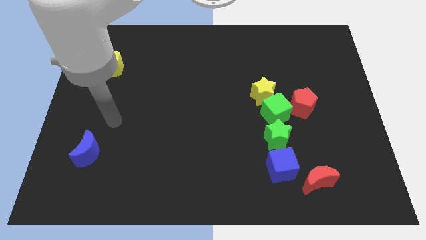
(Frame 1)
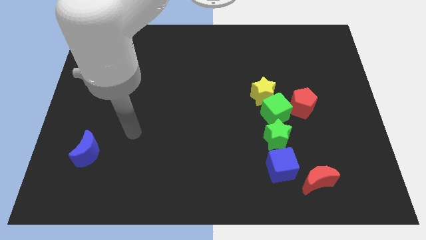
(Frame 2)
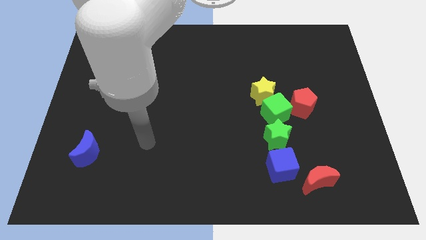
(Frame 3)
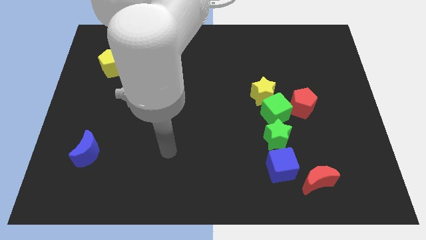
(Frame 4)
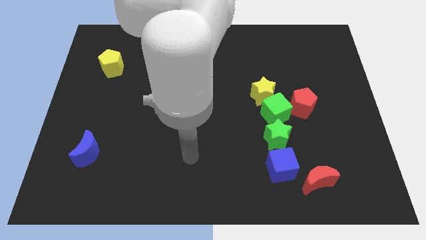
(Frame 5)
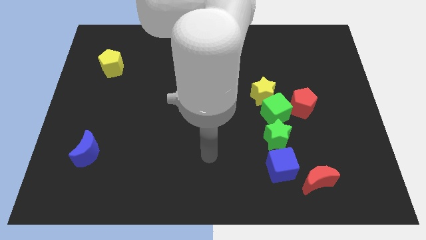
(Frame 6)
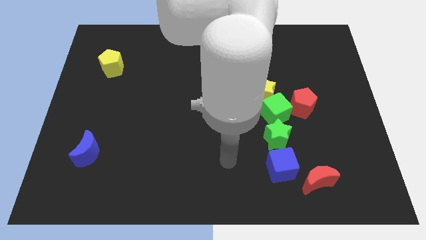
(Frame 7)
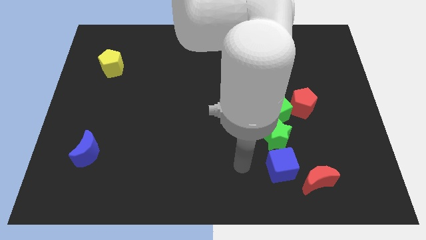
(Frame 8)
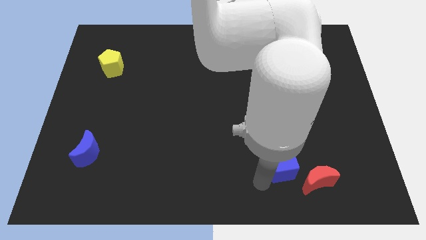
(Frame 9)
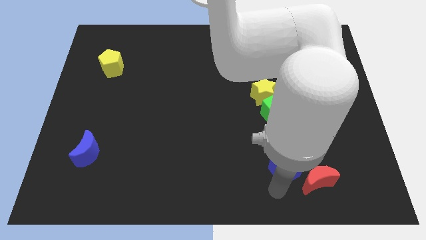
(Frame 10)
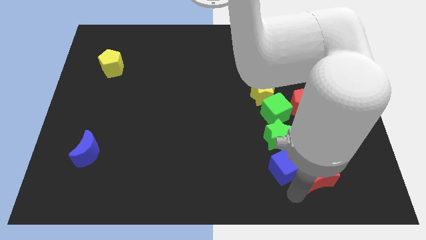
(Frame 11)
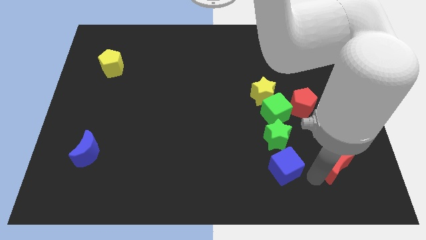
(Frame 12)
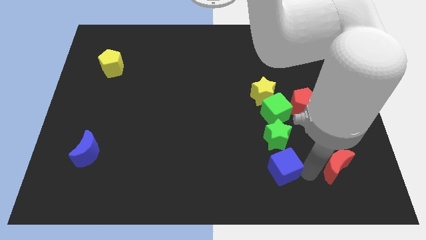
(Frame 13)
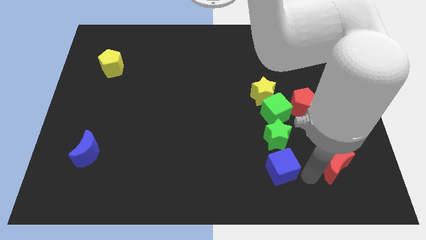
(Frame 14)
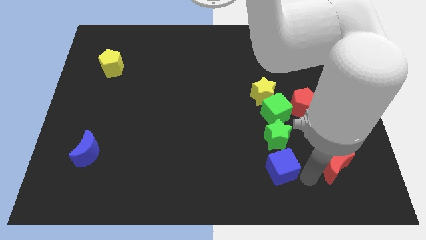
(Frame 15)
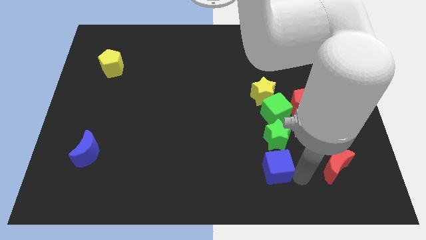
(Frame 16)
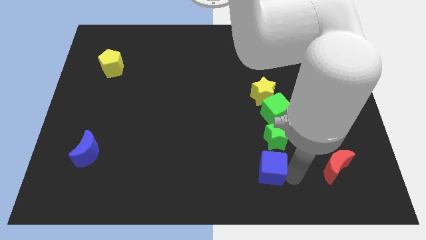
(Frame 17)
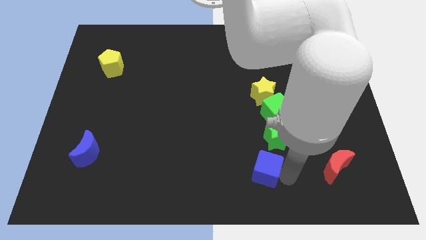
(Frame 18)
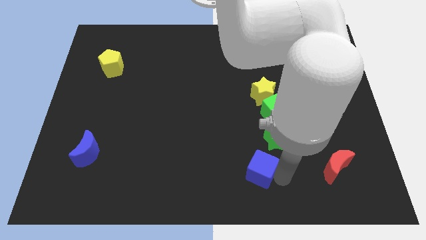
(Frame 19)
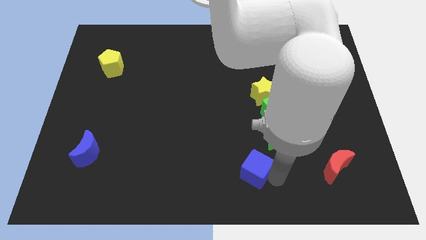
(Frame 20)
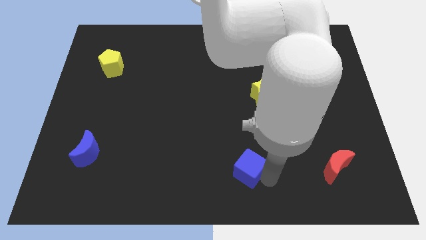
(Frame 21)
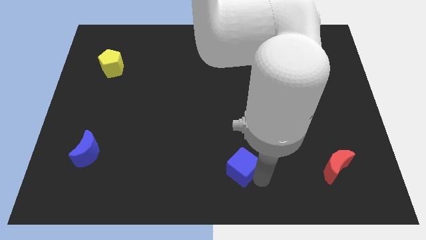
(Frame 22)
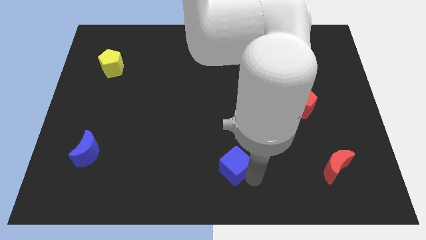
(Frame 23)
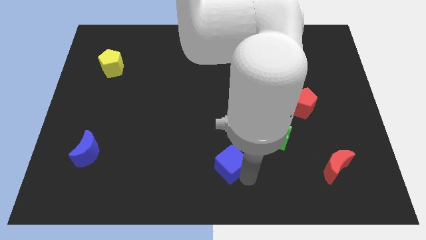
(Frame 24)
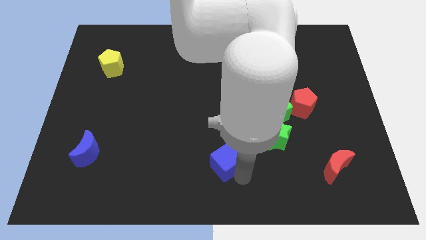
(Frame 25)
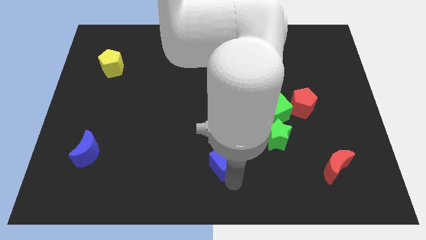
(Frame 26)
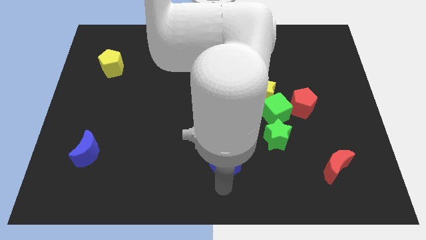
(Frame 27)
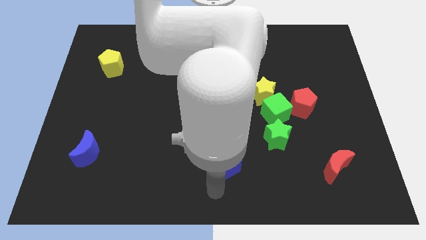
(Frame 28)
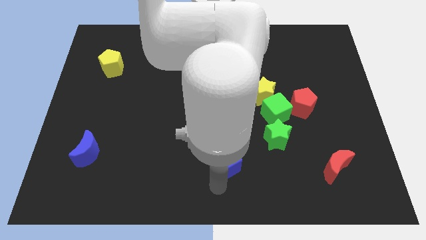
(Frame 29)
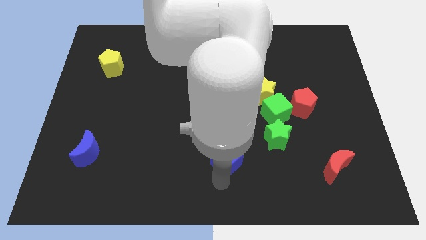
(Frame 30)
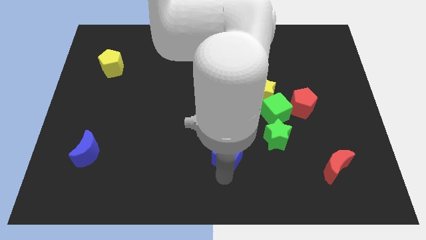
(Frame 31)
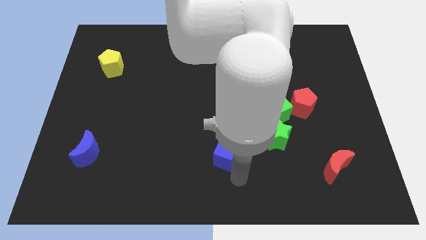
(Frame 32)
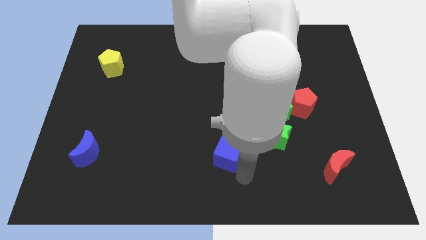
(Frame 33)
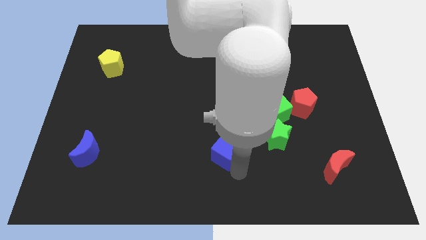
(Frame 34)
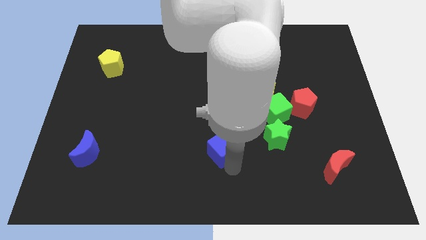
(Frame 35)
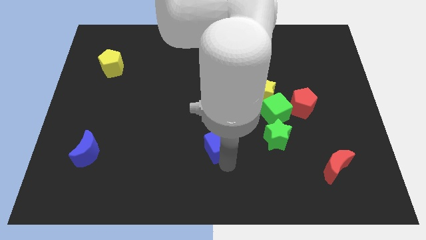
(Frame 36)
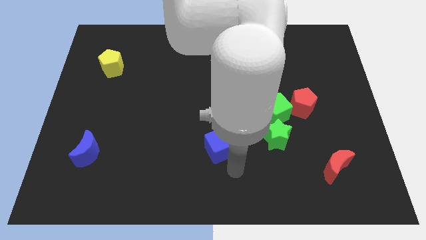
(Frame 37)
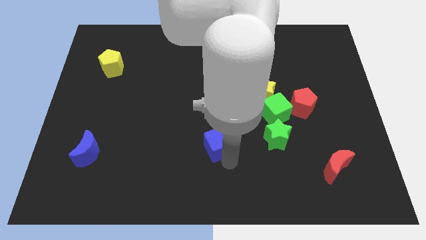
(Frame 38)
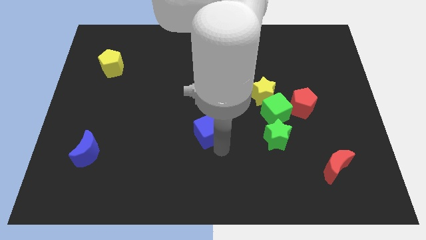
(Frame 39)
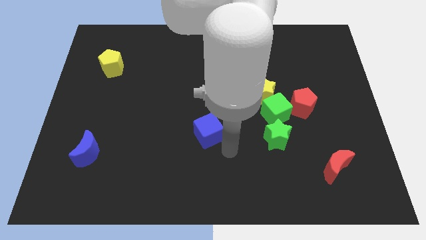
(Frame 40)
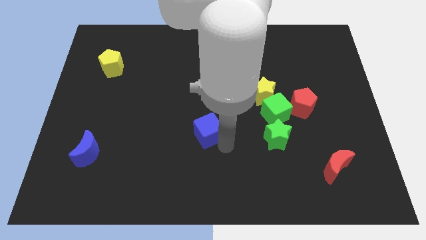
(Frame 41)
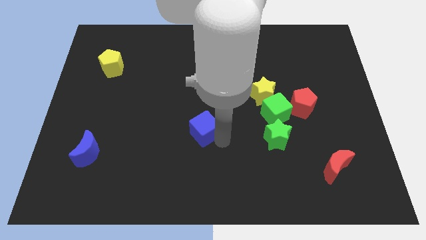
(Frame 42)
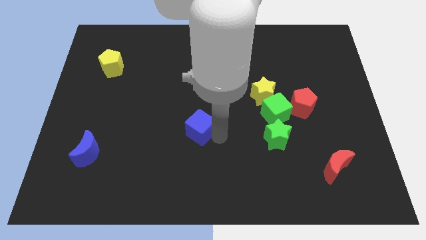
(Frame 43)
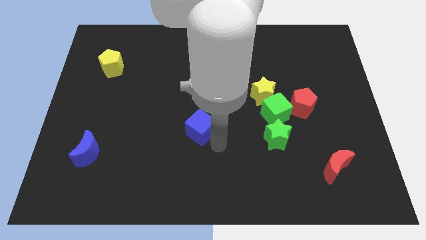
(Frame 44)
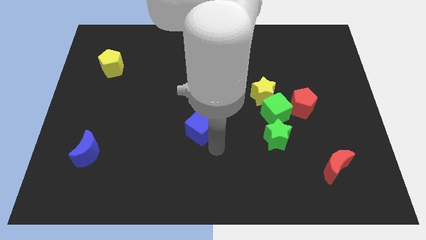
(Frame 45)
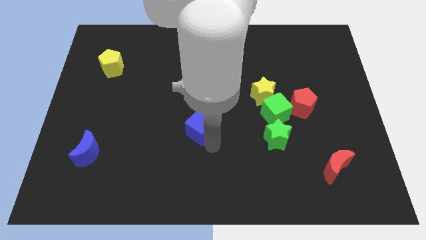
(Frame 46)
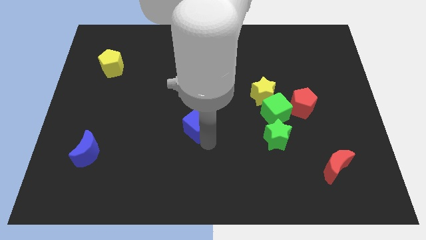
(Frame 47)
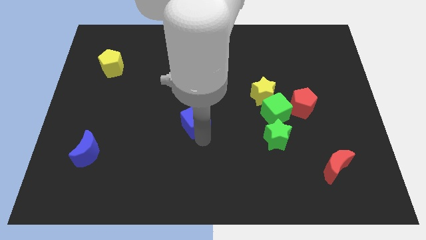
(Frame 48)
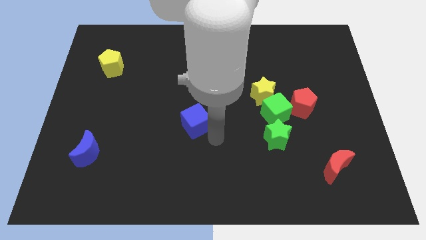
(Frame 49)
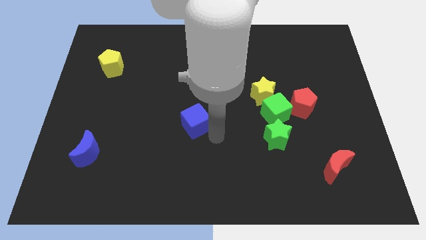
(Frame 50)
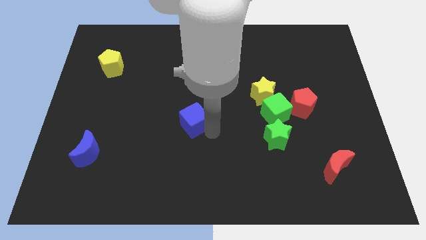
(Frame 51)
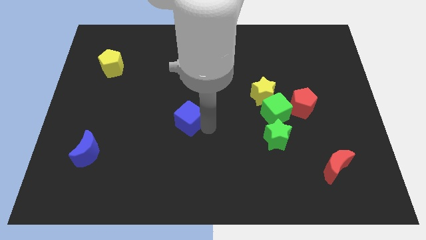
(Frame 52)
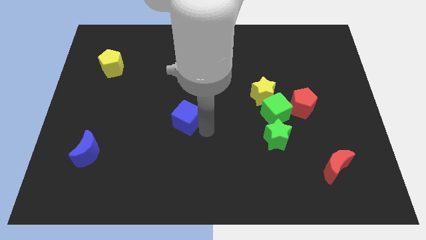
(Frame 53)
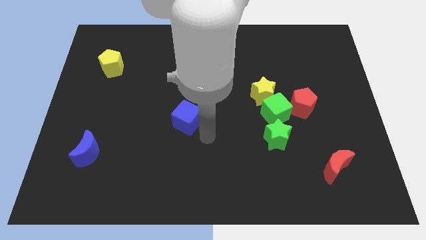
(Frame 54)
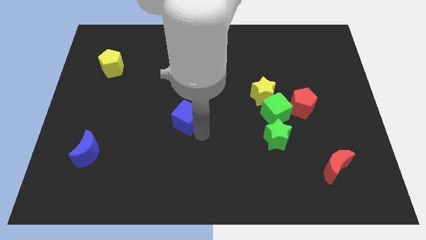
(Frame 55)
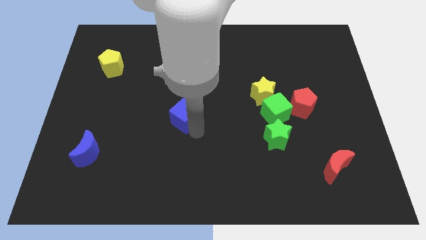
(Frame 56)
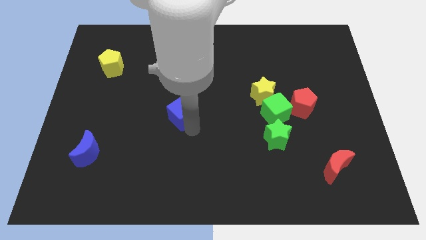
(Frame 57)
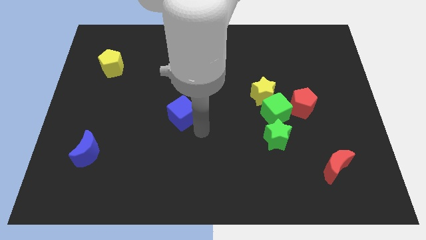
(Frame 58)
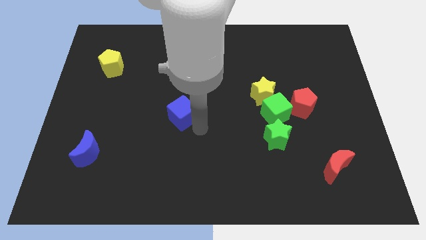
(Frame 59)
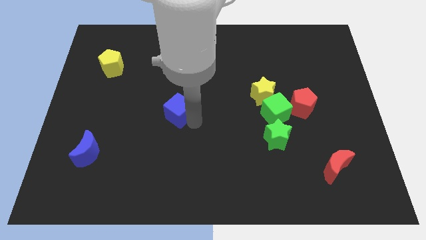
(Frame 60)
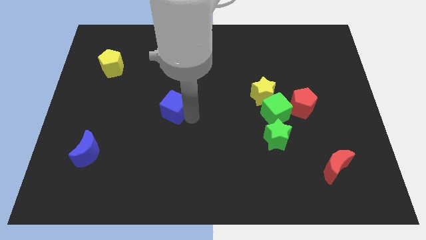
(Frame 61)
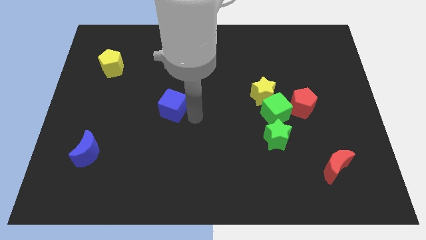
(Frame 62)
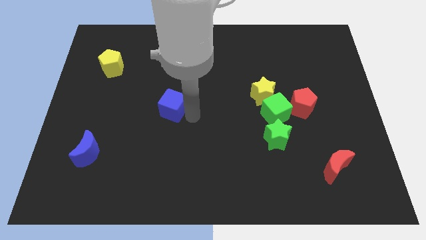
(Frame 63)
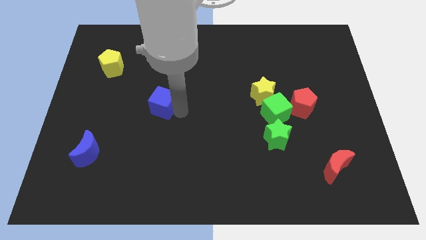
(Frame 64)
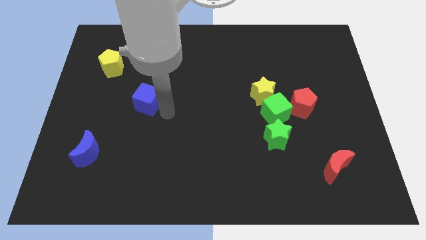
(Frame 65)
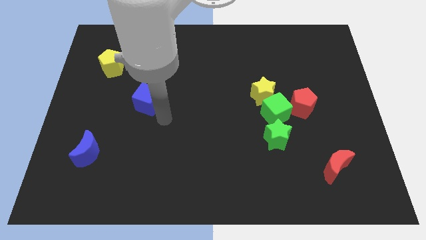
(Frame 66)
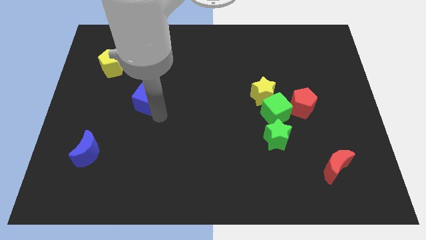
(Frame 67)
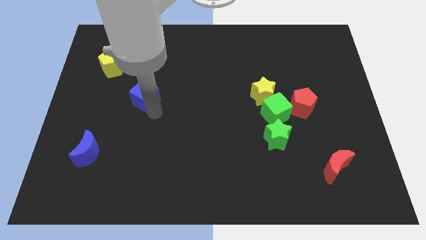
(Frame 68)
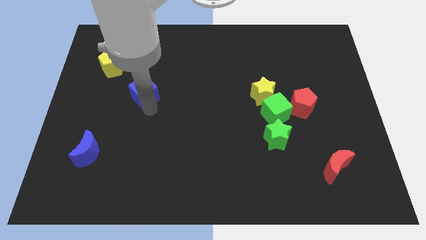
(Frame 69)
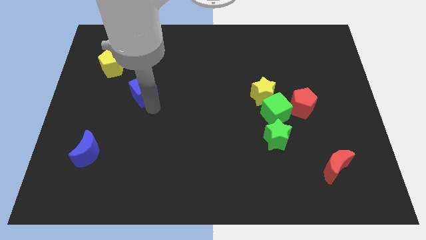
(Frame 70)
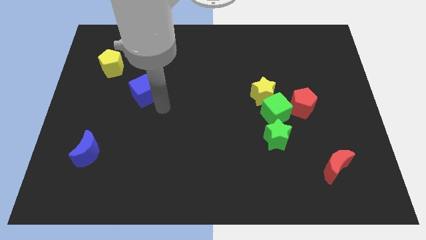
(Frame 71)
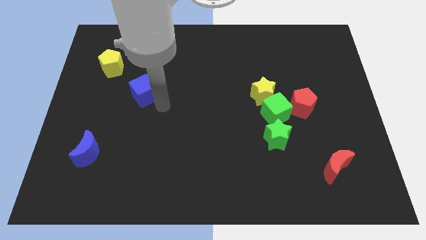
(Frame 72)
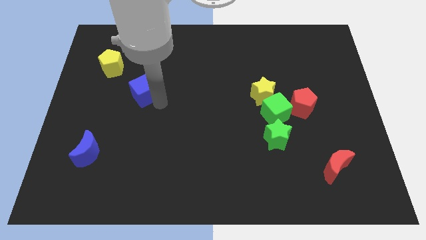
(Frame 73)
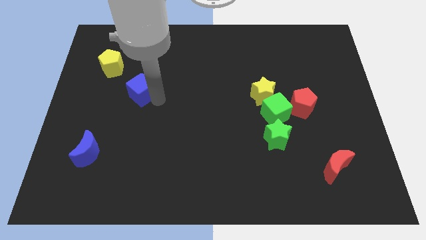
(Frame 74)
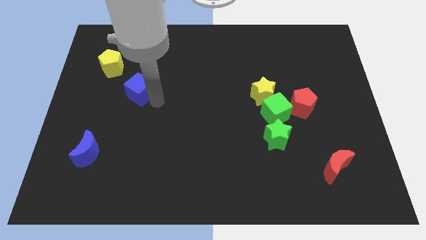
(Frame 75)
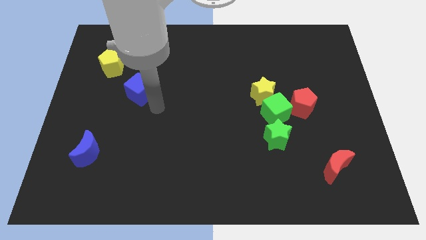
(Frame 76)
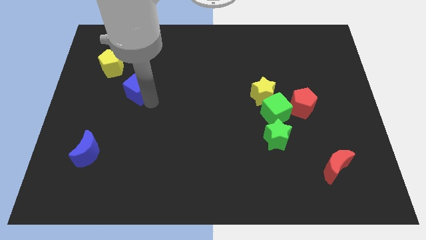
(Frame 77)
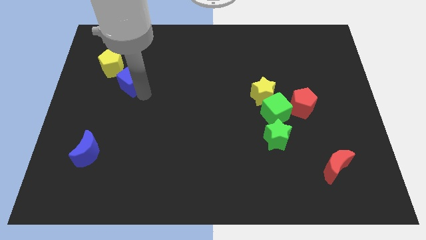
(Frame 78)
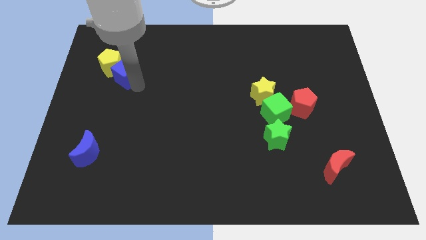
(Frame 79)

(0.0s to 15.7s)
slide the blue cube to the yellow pentagon
